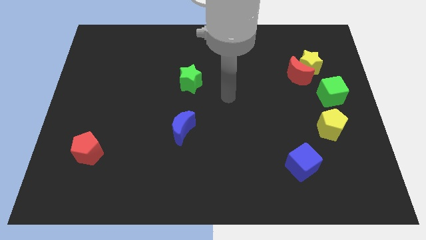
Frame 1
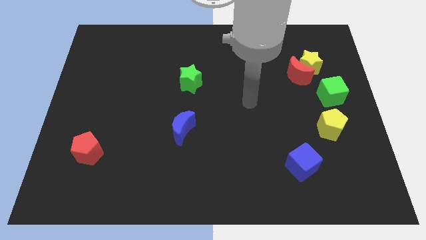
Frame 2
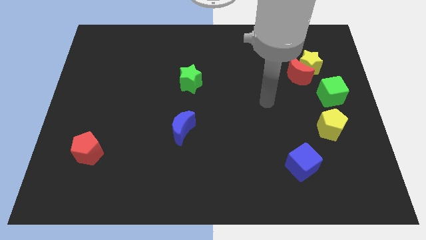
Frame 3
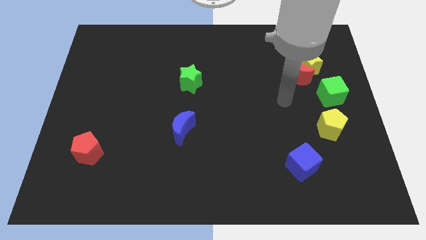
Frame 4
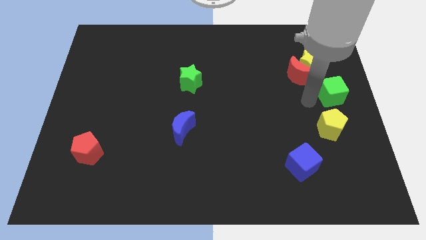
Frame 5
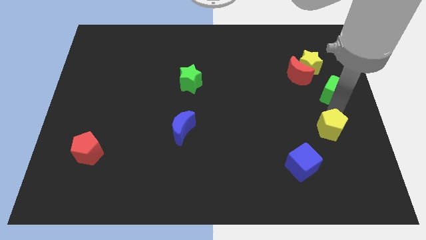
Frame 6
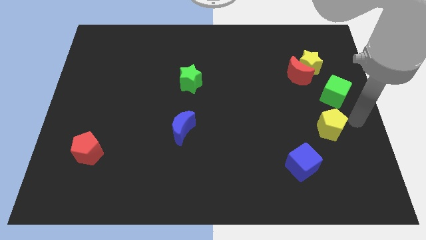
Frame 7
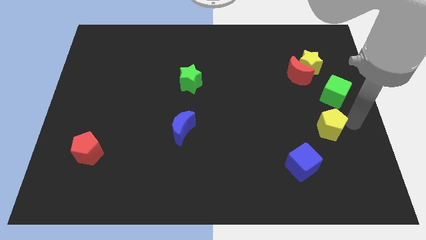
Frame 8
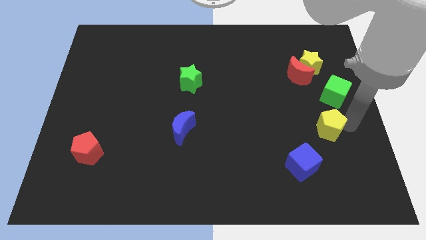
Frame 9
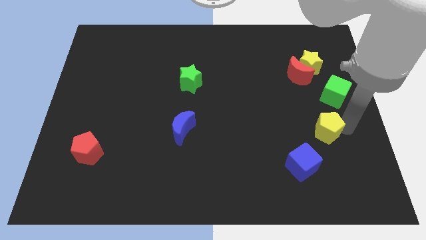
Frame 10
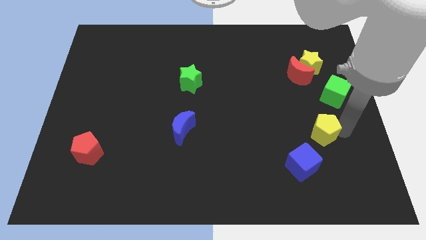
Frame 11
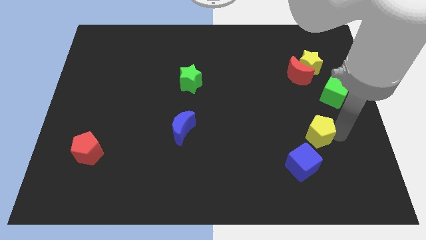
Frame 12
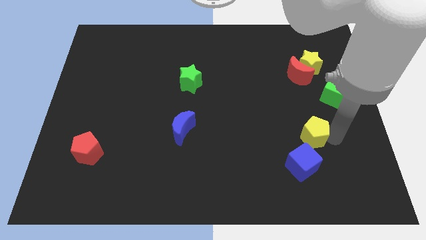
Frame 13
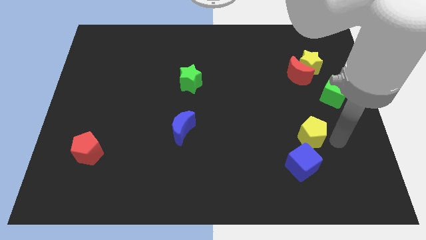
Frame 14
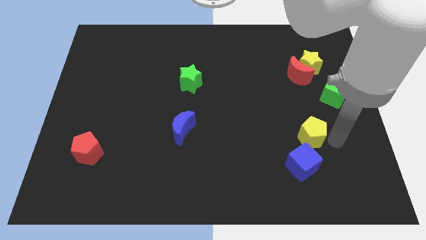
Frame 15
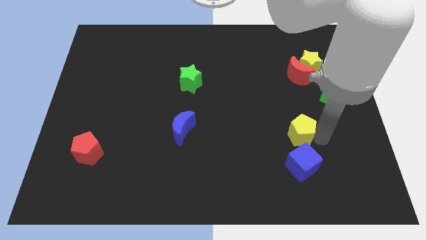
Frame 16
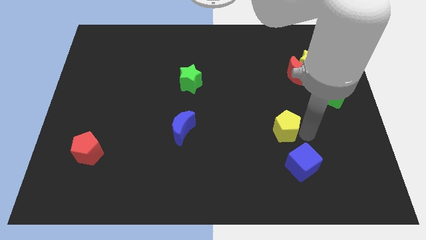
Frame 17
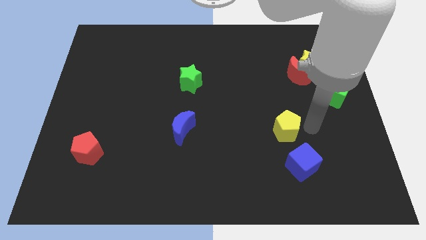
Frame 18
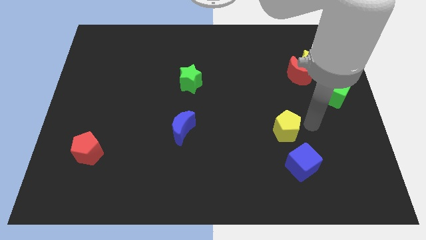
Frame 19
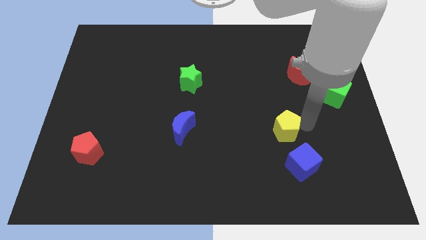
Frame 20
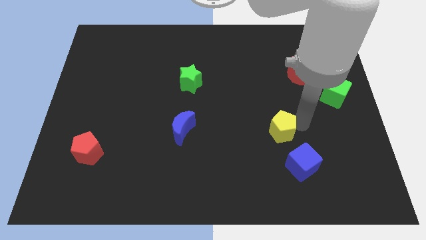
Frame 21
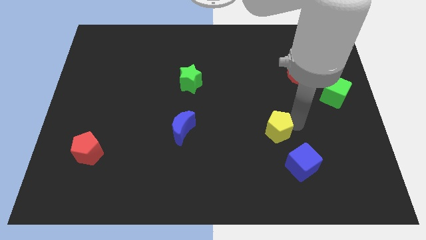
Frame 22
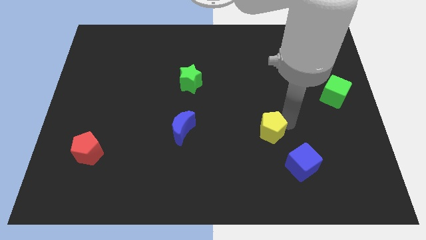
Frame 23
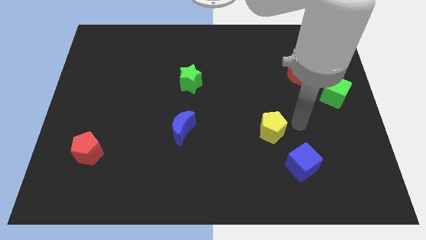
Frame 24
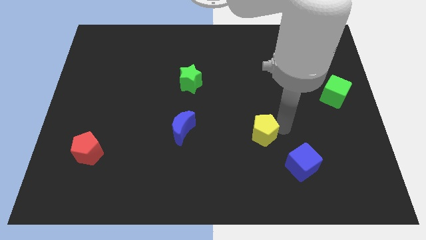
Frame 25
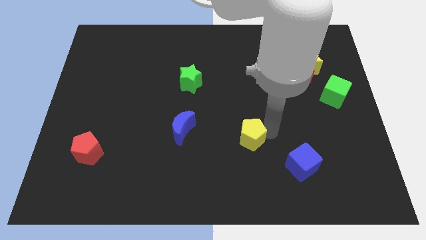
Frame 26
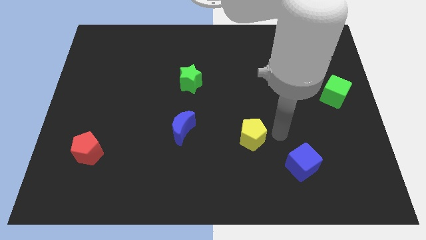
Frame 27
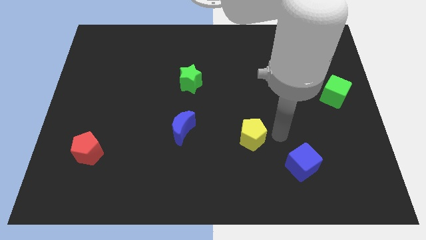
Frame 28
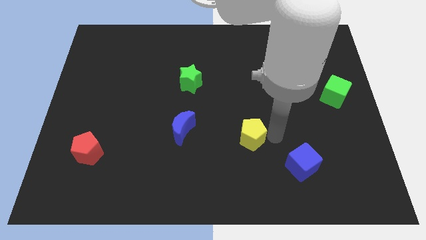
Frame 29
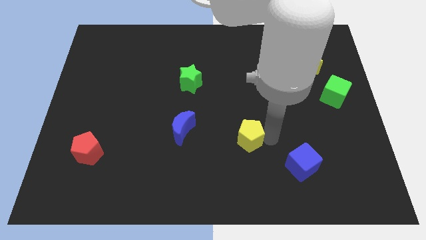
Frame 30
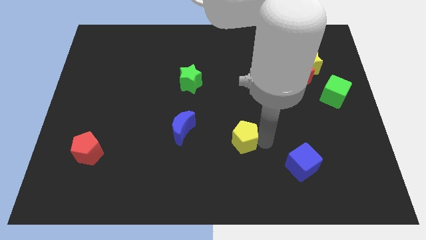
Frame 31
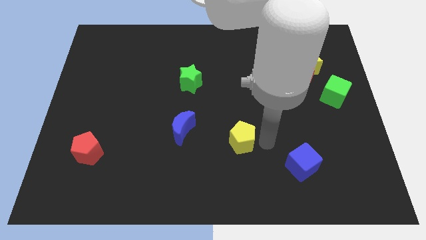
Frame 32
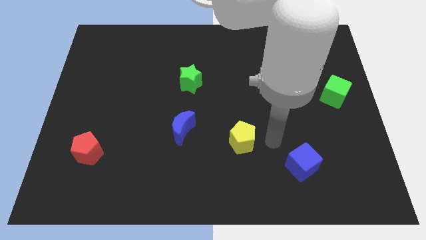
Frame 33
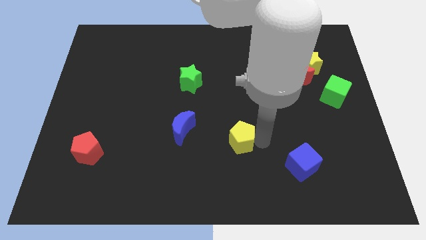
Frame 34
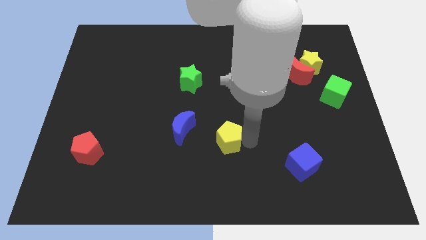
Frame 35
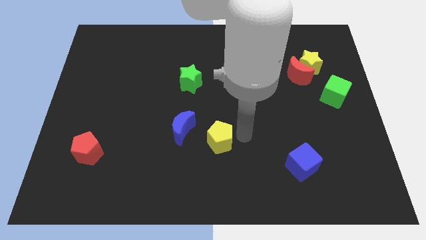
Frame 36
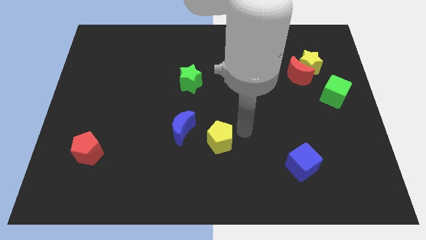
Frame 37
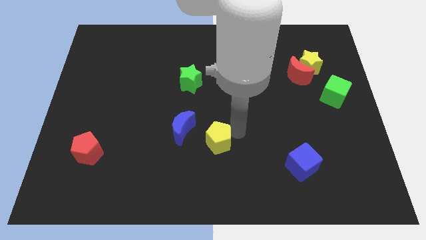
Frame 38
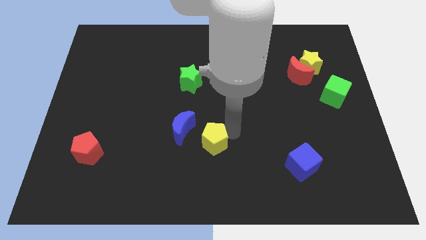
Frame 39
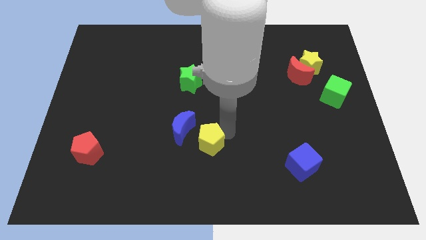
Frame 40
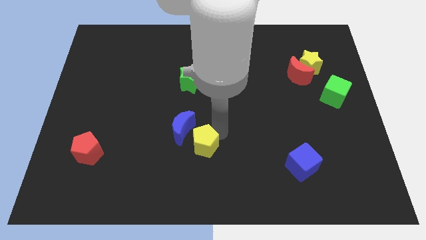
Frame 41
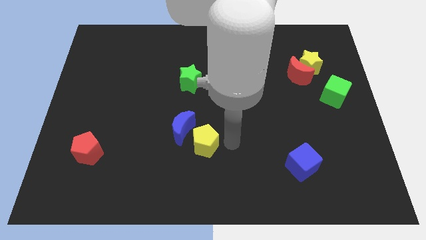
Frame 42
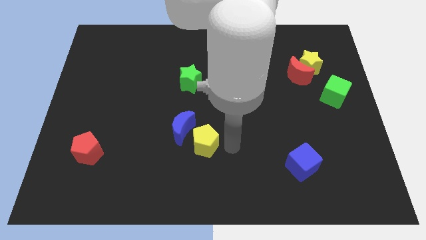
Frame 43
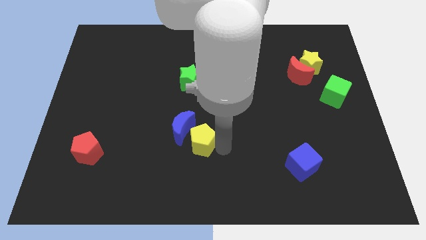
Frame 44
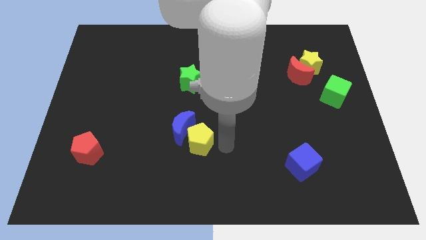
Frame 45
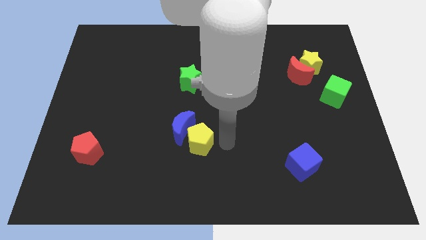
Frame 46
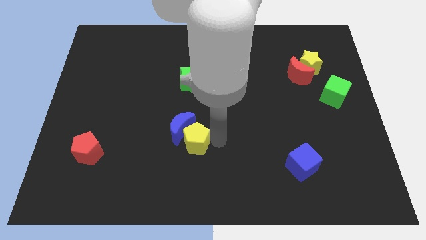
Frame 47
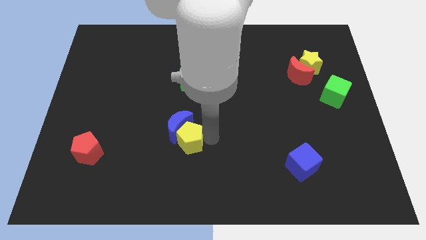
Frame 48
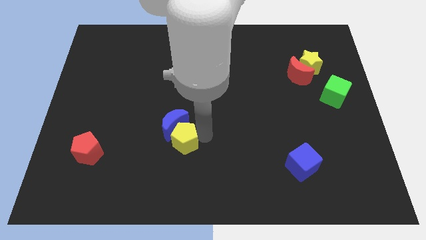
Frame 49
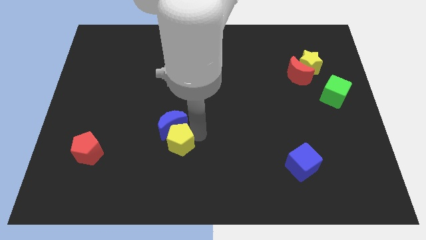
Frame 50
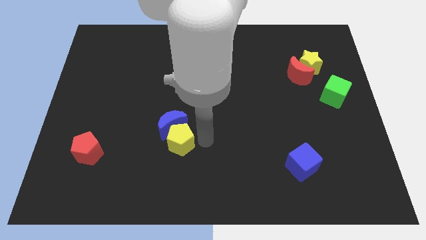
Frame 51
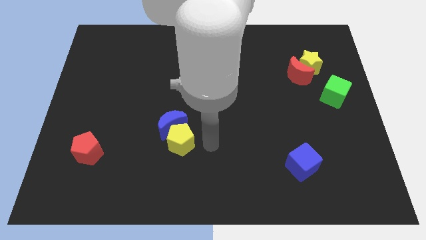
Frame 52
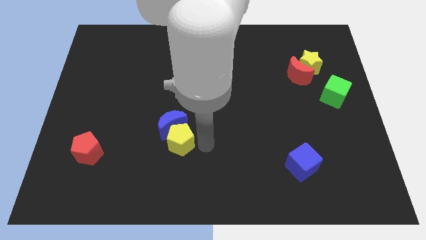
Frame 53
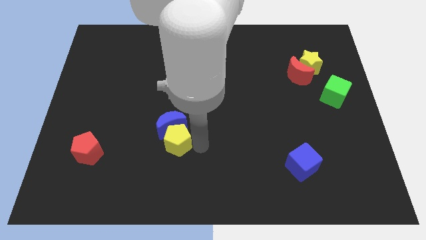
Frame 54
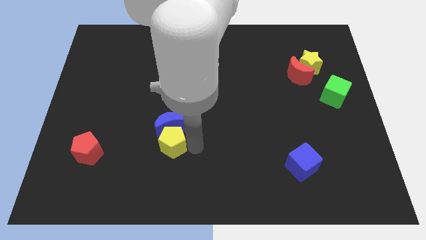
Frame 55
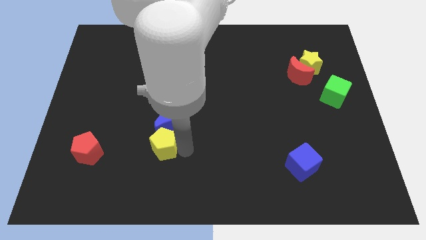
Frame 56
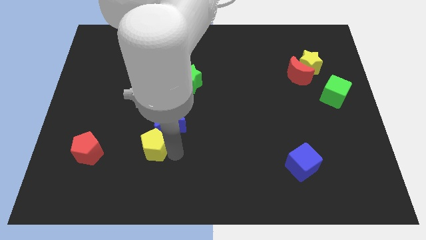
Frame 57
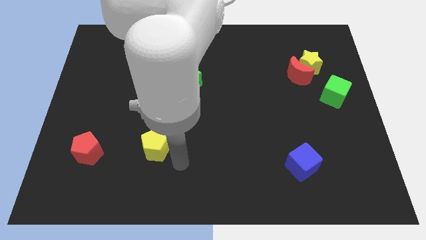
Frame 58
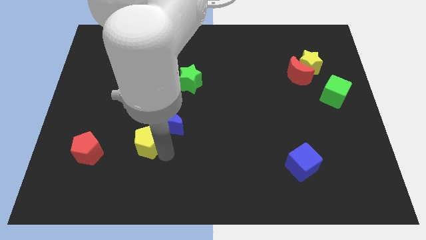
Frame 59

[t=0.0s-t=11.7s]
move the yellow pentagon to the left side of the blue moon

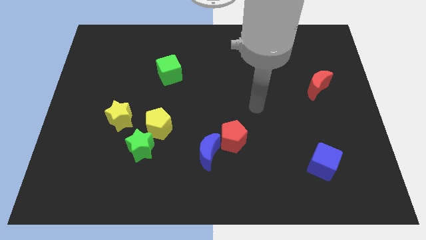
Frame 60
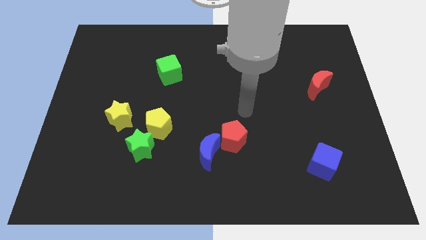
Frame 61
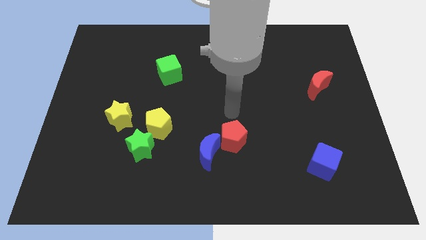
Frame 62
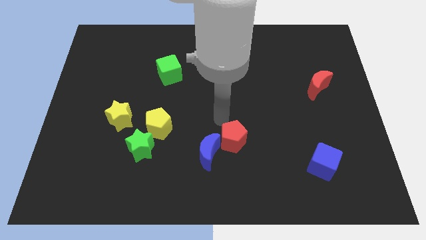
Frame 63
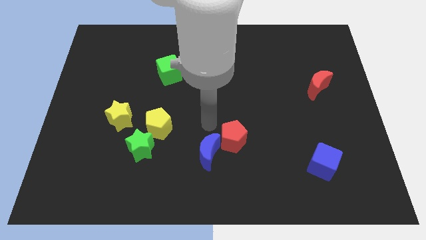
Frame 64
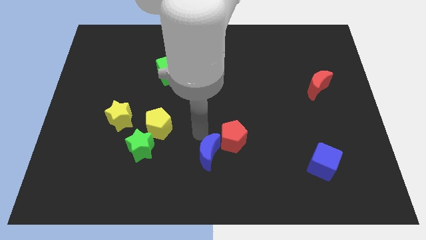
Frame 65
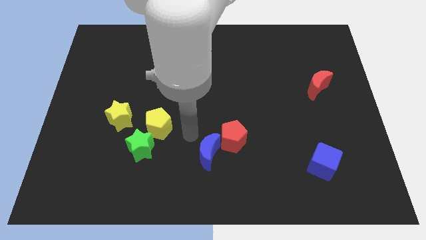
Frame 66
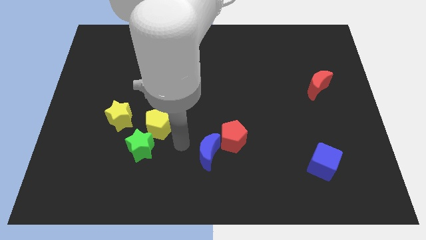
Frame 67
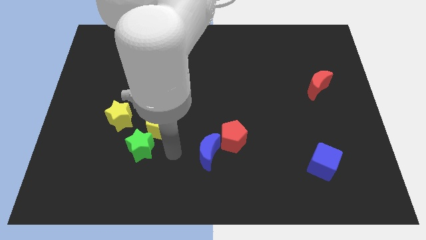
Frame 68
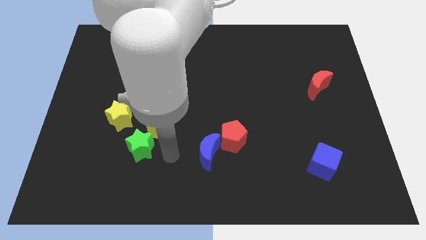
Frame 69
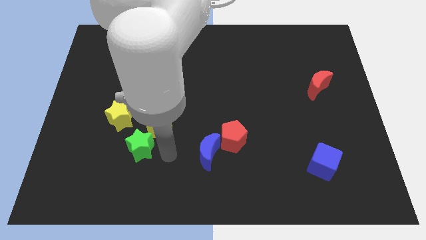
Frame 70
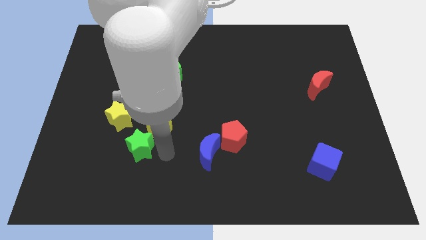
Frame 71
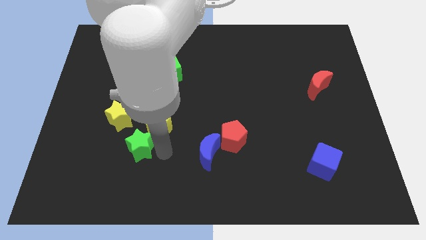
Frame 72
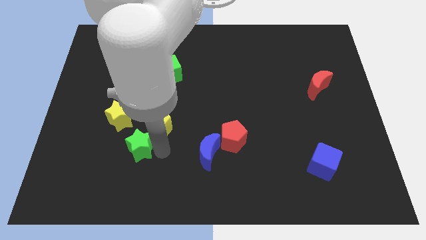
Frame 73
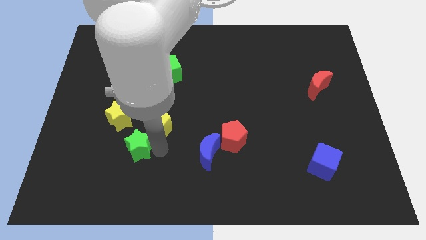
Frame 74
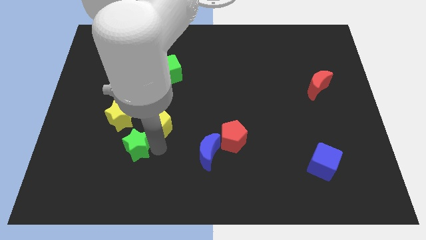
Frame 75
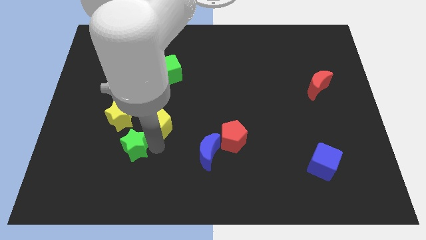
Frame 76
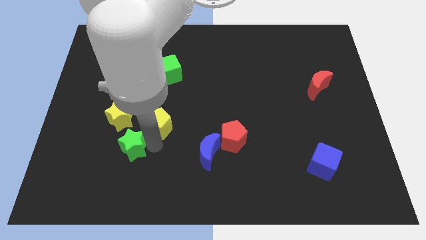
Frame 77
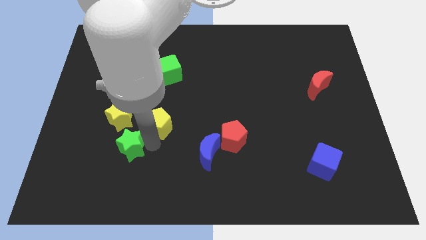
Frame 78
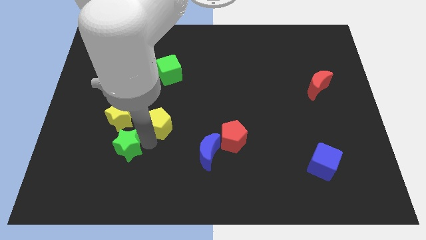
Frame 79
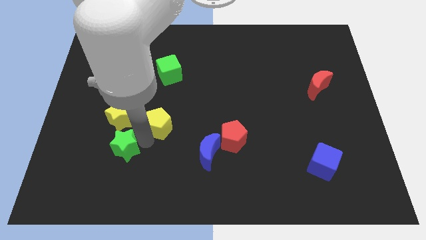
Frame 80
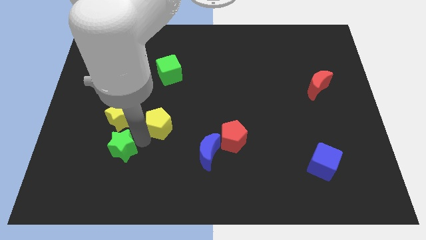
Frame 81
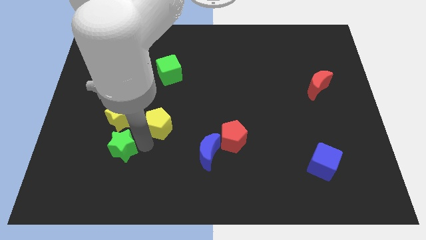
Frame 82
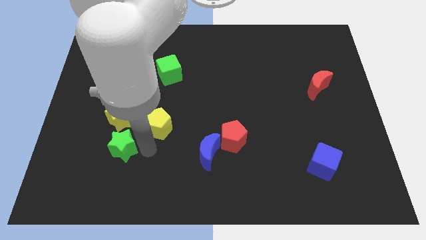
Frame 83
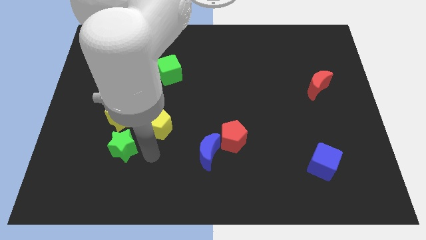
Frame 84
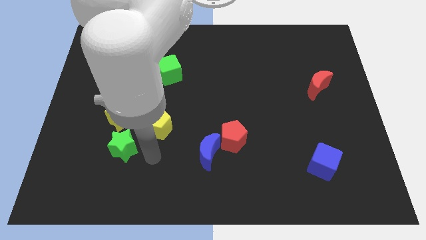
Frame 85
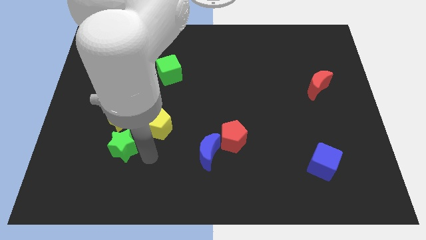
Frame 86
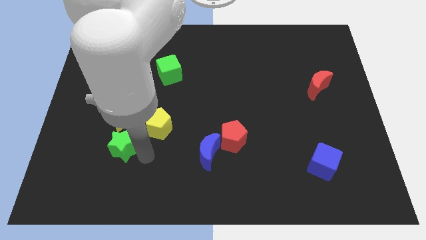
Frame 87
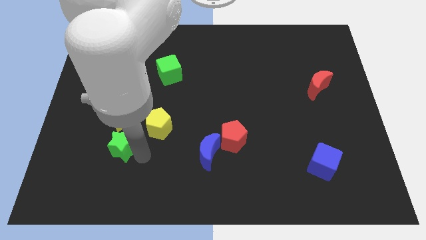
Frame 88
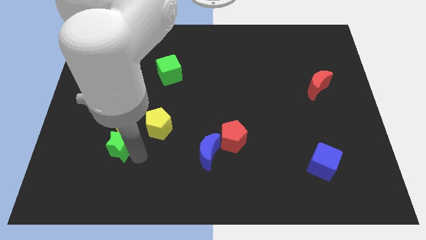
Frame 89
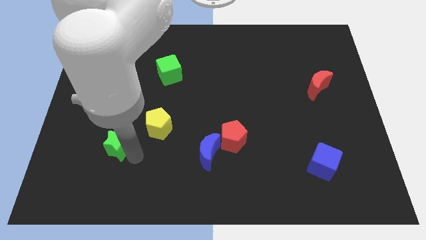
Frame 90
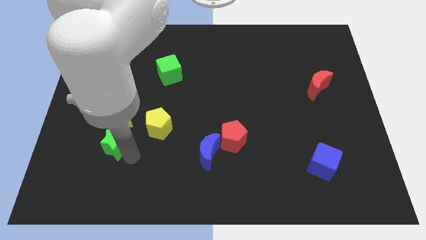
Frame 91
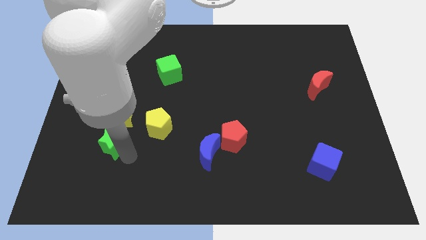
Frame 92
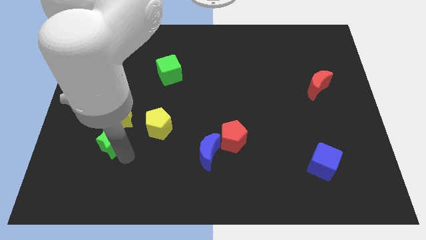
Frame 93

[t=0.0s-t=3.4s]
slide the green star just left of the yellow pentagon
